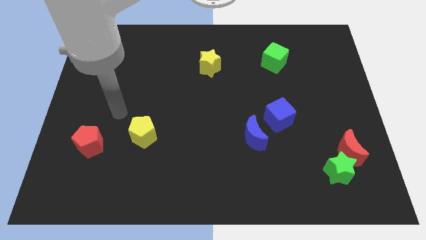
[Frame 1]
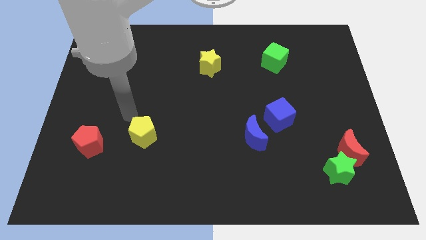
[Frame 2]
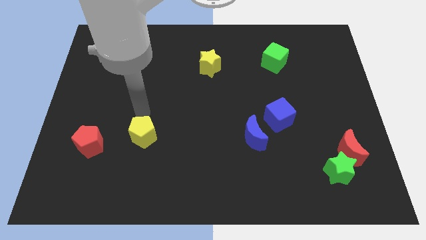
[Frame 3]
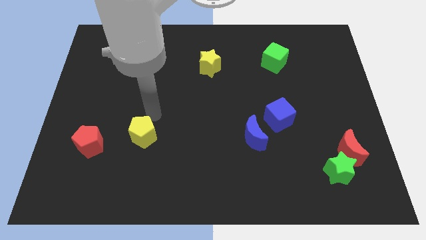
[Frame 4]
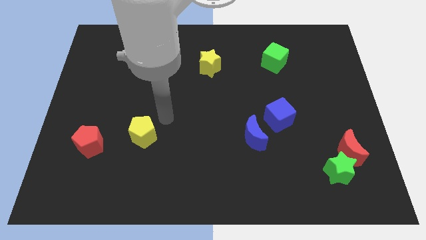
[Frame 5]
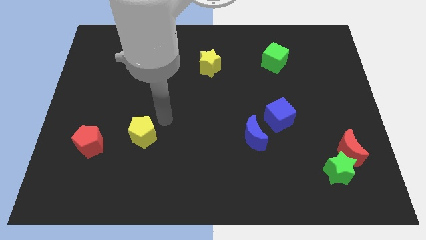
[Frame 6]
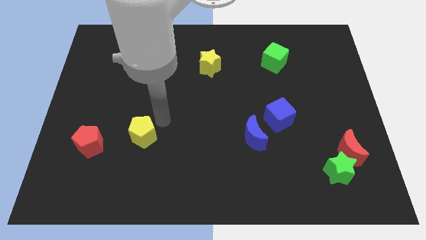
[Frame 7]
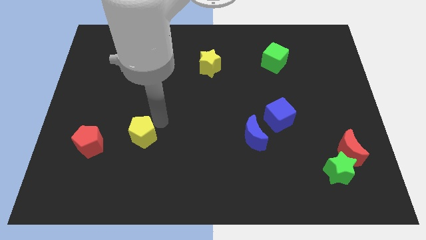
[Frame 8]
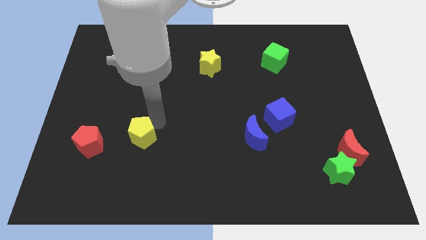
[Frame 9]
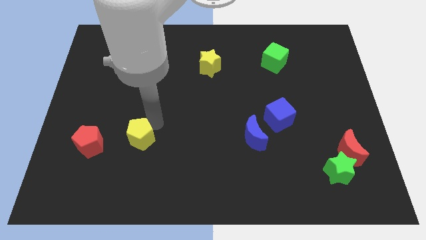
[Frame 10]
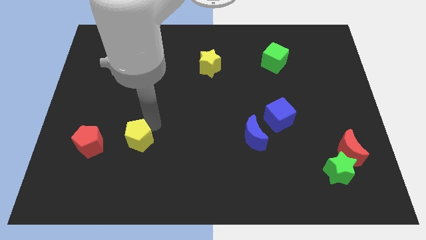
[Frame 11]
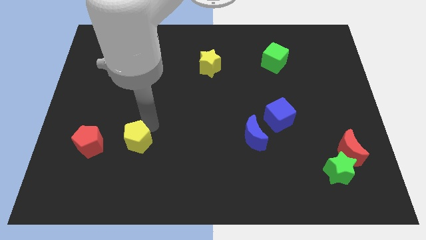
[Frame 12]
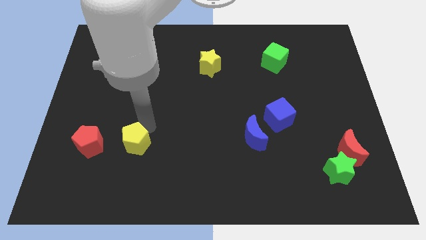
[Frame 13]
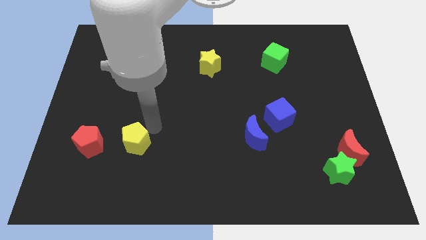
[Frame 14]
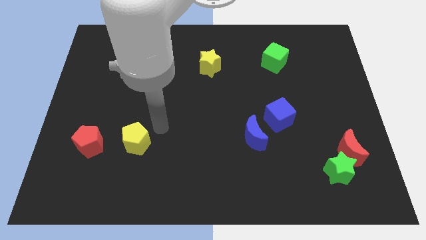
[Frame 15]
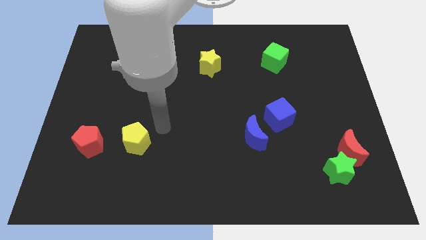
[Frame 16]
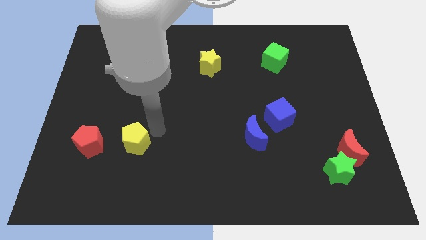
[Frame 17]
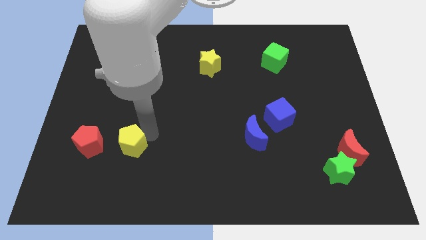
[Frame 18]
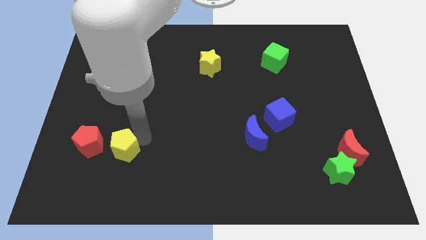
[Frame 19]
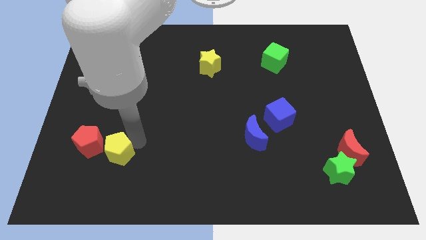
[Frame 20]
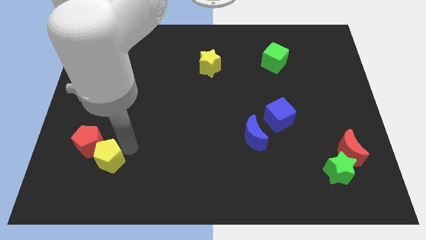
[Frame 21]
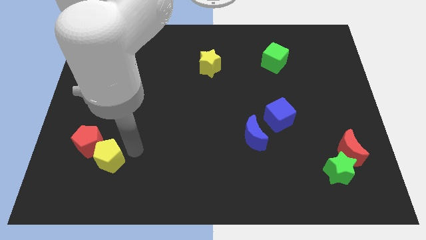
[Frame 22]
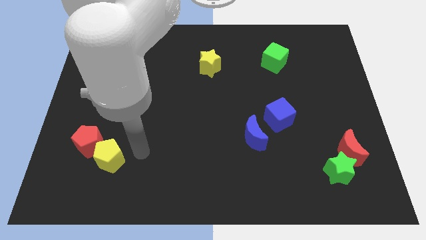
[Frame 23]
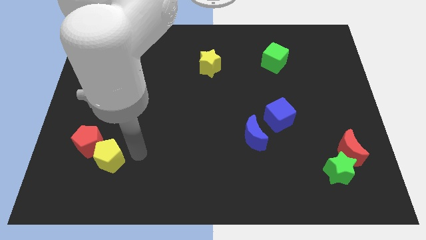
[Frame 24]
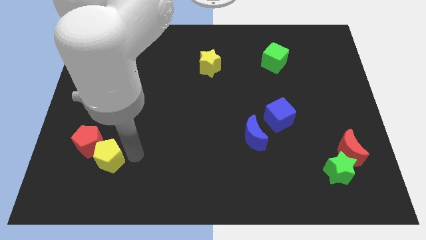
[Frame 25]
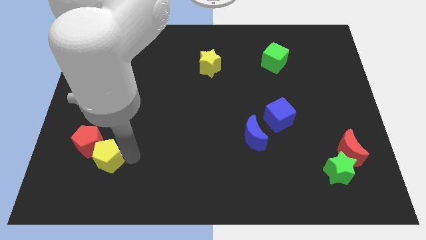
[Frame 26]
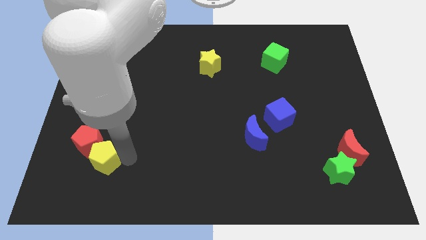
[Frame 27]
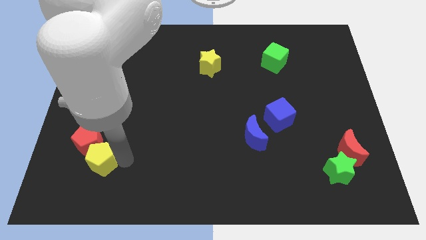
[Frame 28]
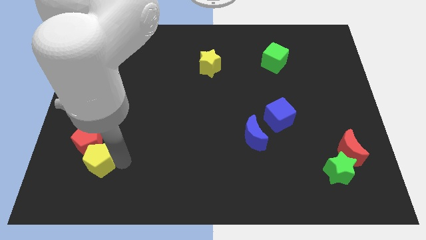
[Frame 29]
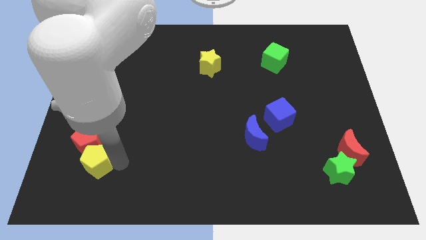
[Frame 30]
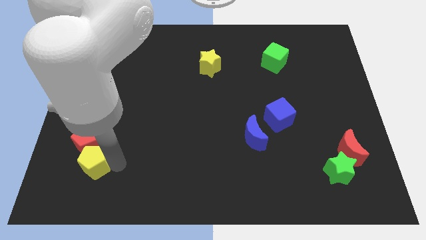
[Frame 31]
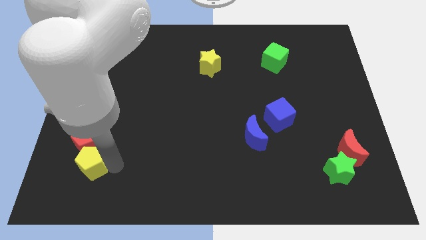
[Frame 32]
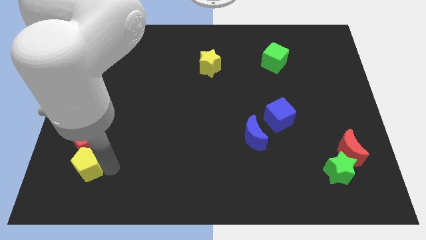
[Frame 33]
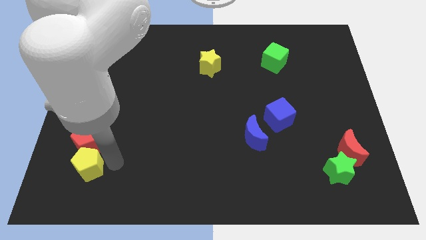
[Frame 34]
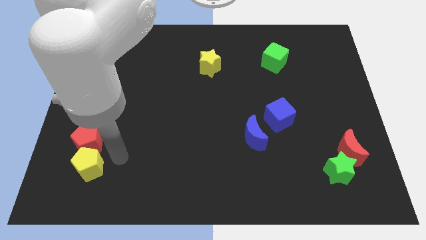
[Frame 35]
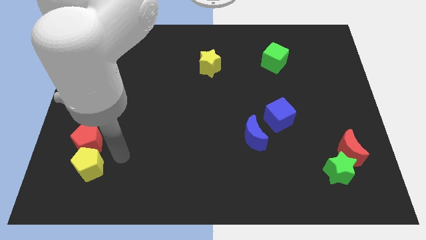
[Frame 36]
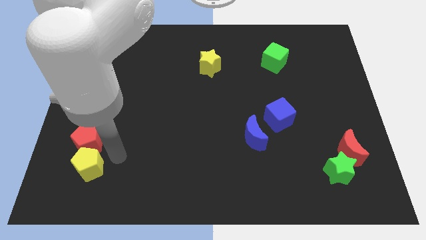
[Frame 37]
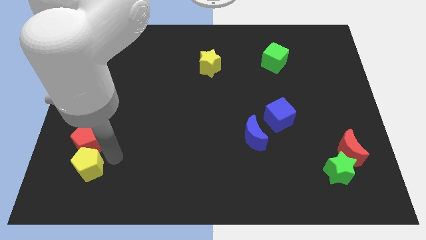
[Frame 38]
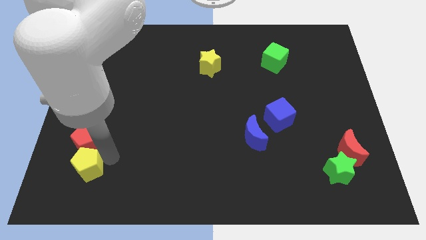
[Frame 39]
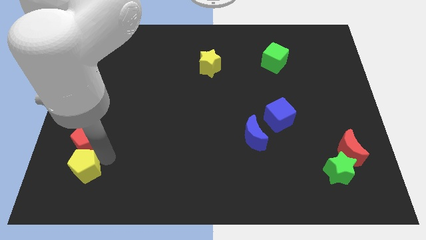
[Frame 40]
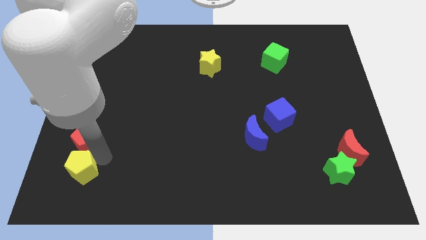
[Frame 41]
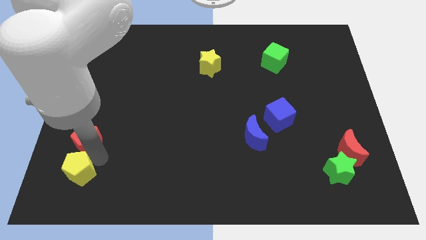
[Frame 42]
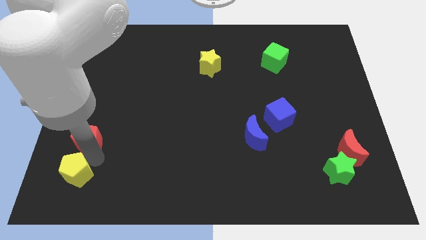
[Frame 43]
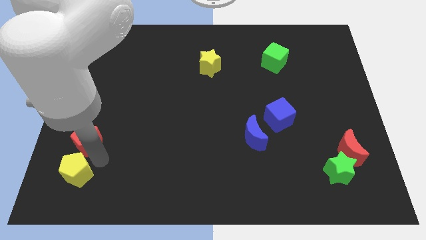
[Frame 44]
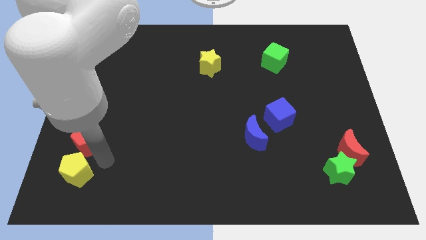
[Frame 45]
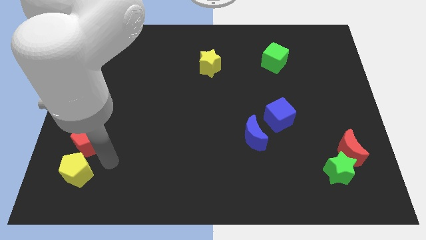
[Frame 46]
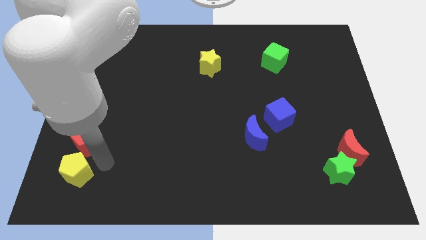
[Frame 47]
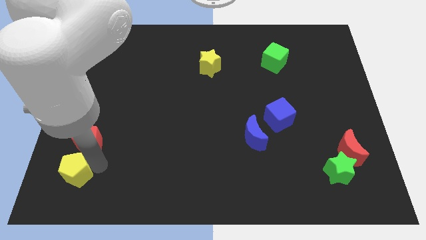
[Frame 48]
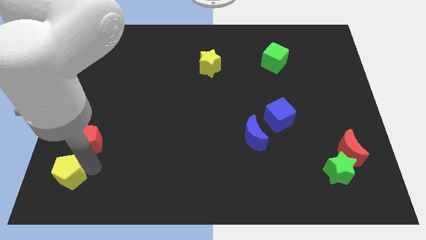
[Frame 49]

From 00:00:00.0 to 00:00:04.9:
push the yellow pentagon to the bottom left

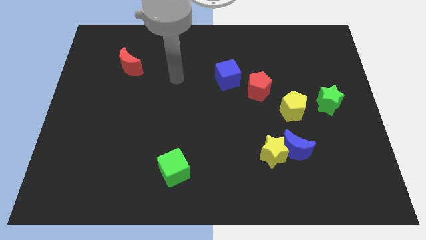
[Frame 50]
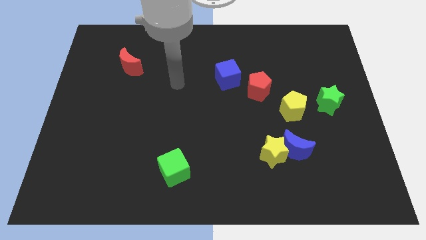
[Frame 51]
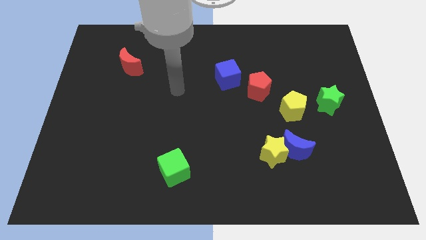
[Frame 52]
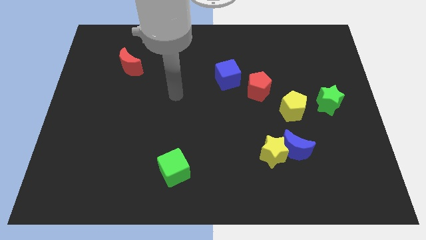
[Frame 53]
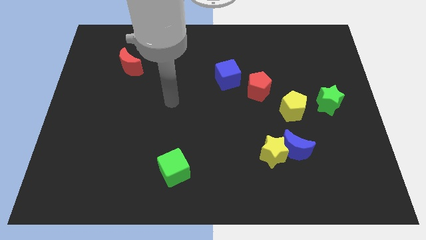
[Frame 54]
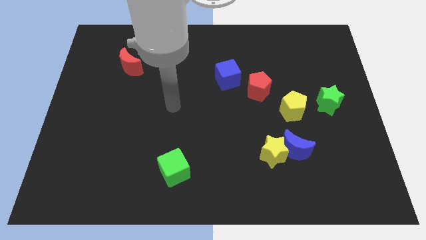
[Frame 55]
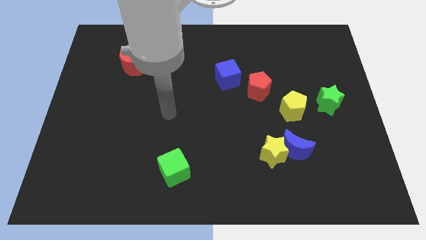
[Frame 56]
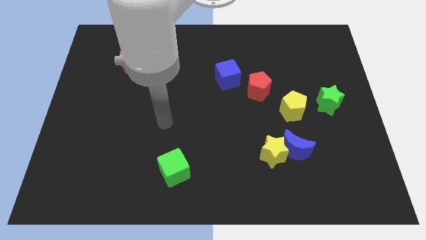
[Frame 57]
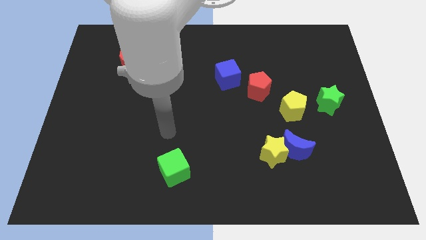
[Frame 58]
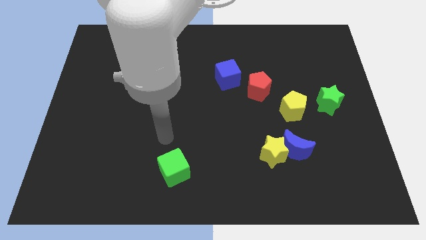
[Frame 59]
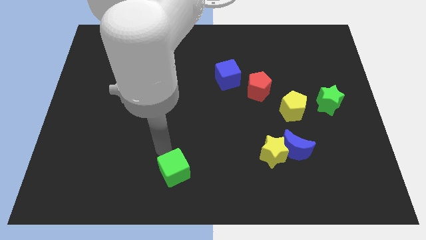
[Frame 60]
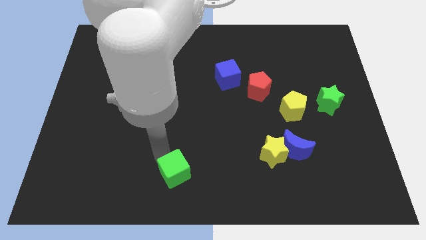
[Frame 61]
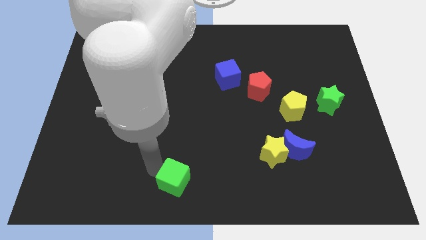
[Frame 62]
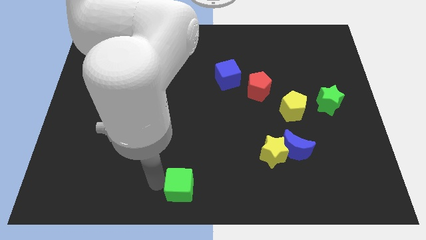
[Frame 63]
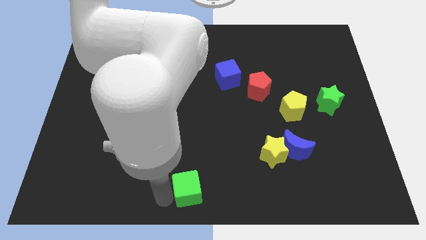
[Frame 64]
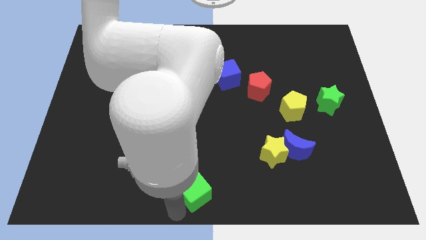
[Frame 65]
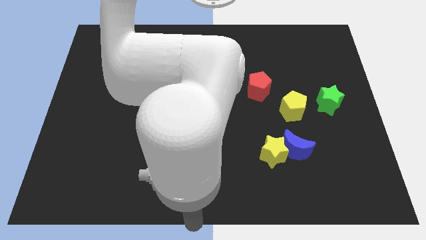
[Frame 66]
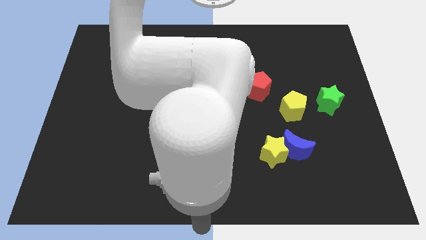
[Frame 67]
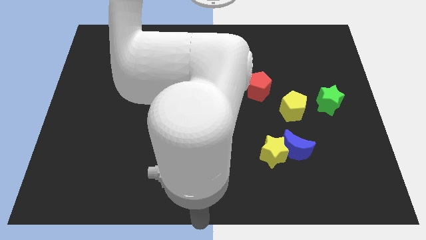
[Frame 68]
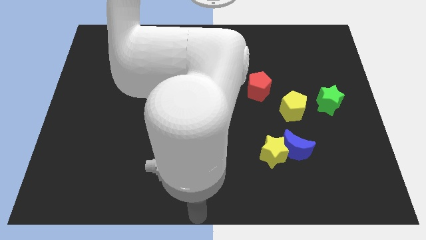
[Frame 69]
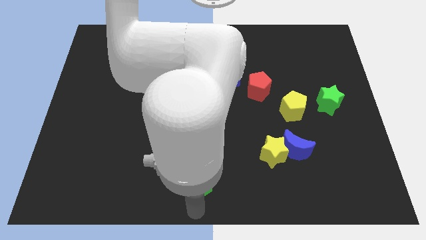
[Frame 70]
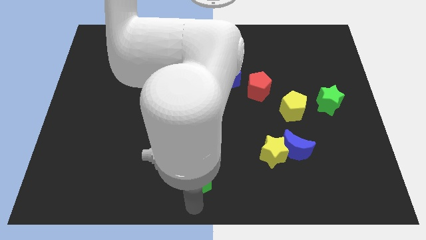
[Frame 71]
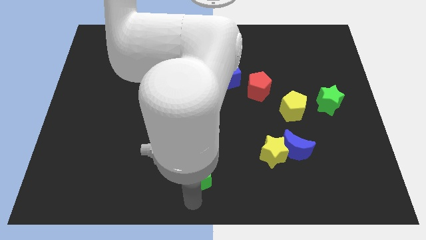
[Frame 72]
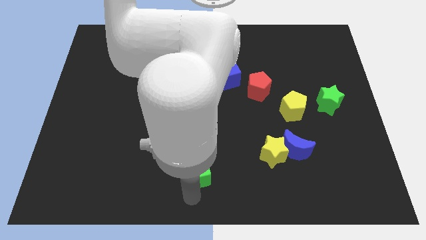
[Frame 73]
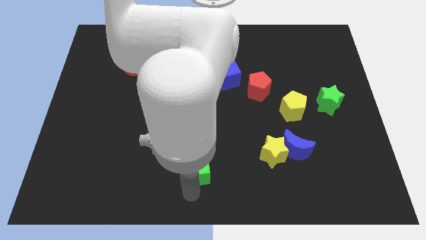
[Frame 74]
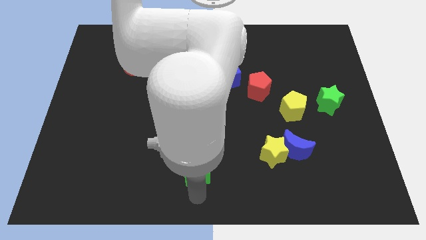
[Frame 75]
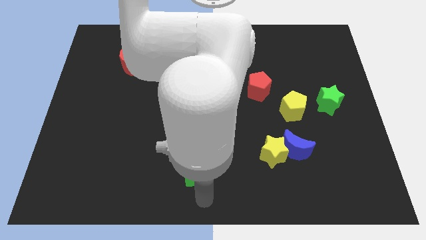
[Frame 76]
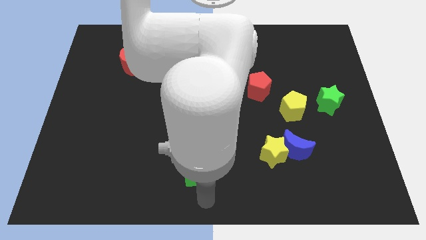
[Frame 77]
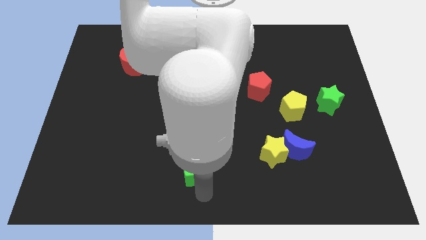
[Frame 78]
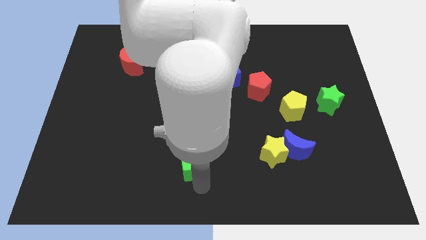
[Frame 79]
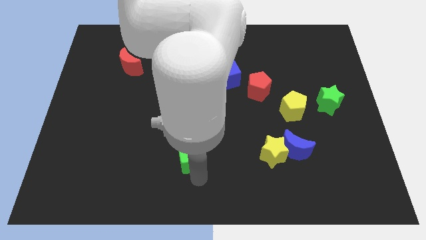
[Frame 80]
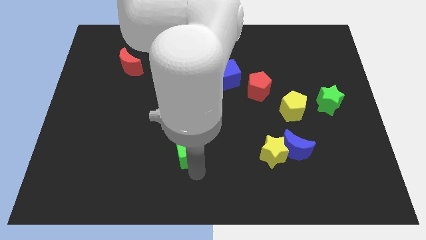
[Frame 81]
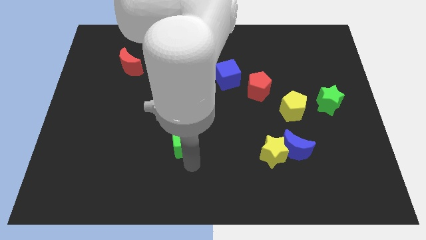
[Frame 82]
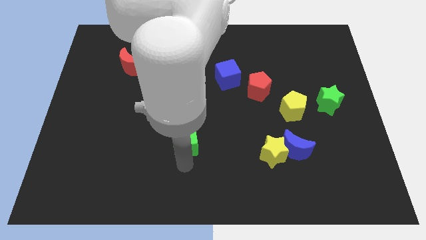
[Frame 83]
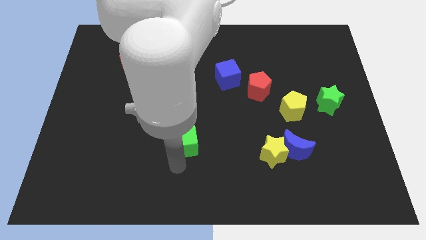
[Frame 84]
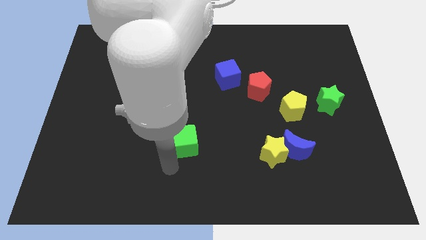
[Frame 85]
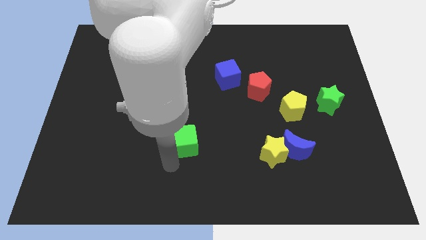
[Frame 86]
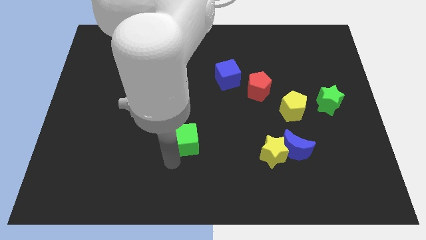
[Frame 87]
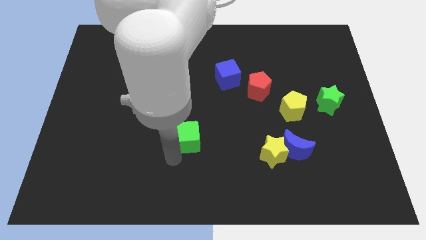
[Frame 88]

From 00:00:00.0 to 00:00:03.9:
slide the green cube to the middle
